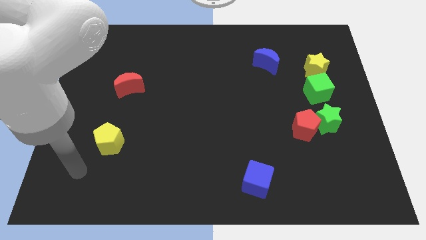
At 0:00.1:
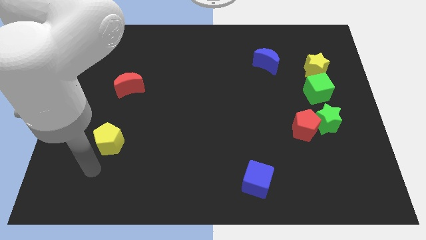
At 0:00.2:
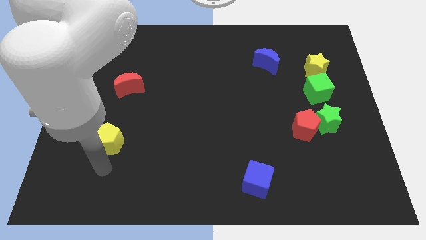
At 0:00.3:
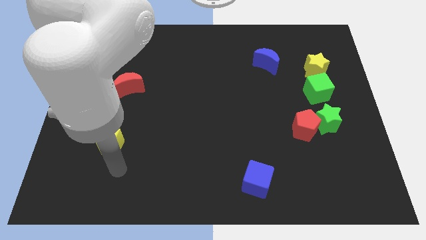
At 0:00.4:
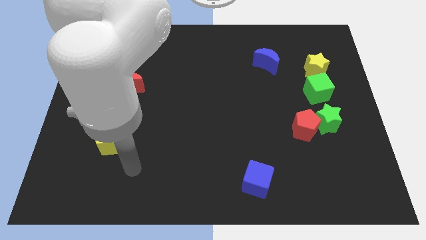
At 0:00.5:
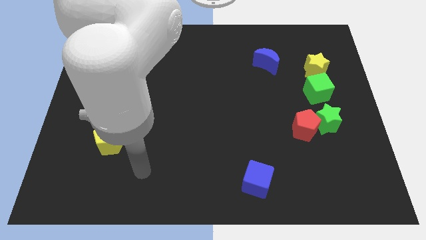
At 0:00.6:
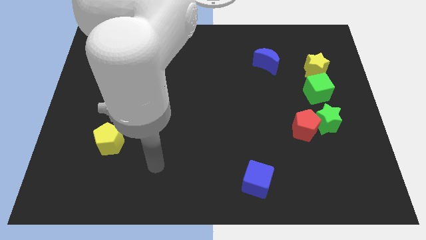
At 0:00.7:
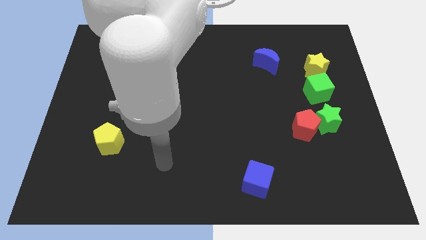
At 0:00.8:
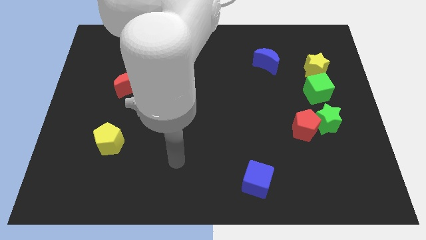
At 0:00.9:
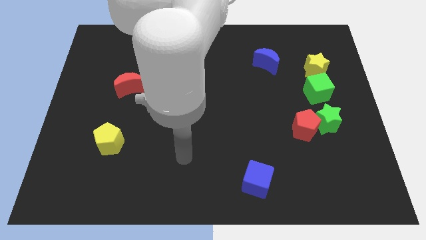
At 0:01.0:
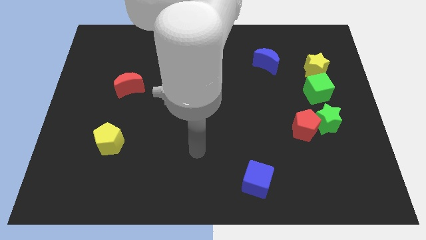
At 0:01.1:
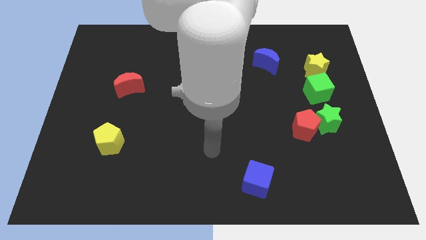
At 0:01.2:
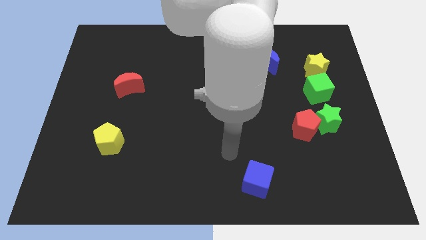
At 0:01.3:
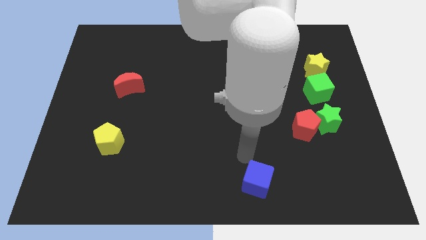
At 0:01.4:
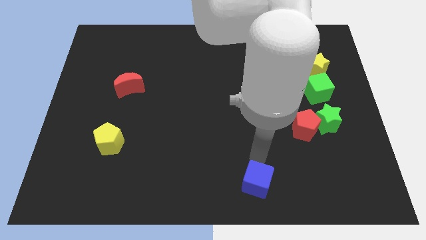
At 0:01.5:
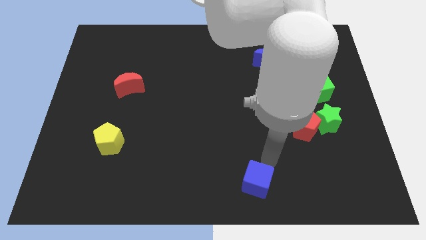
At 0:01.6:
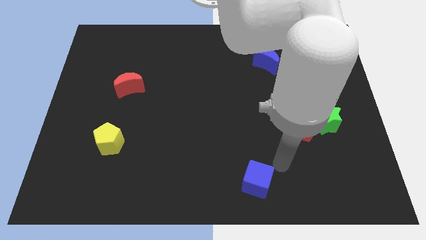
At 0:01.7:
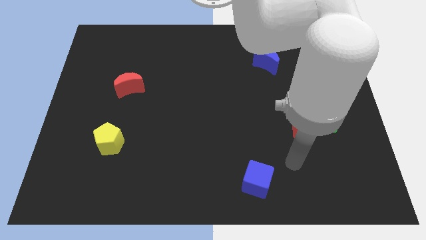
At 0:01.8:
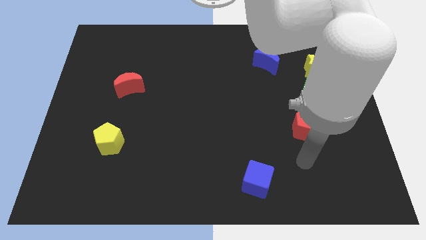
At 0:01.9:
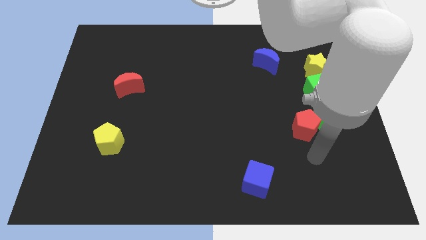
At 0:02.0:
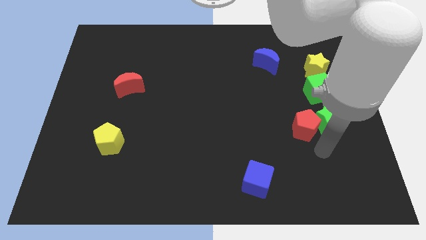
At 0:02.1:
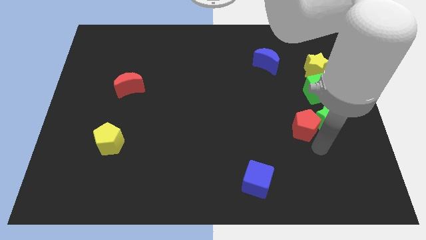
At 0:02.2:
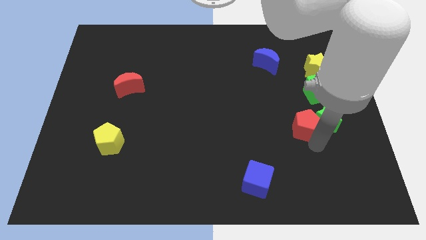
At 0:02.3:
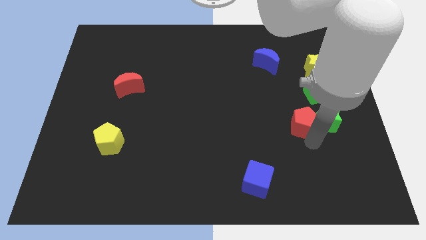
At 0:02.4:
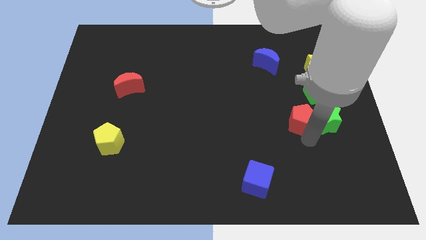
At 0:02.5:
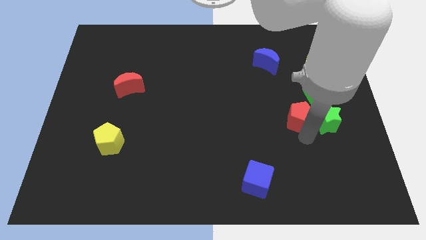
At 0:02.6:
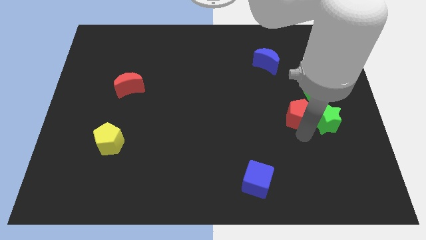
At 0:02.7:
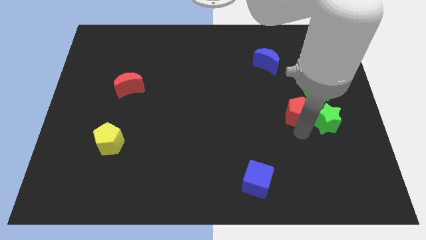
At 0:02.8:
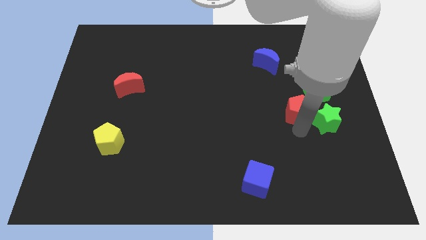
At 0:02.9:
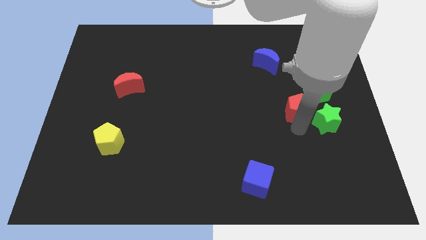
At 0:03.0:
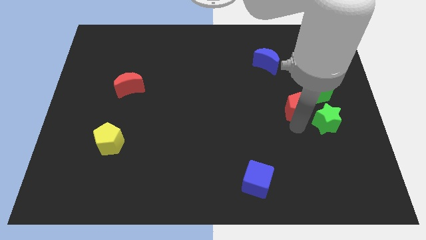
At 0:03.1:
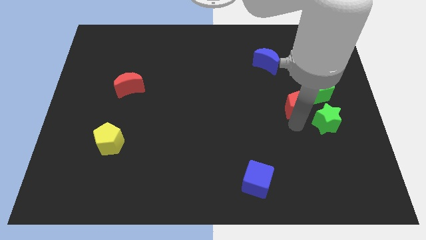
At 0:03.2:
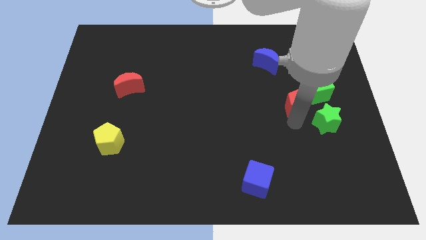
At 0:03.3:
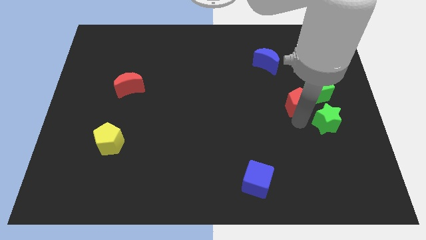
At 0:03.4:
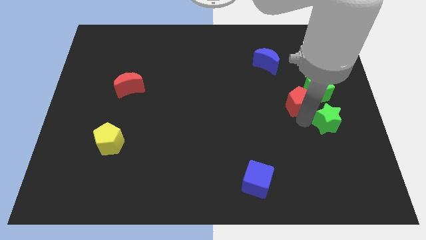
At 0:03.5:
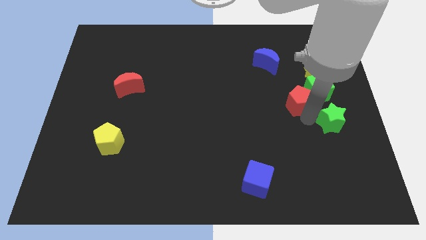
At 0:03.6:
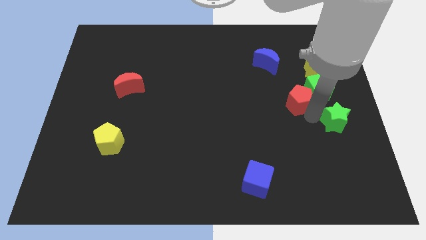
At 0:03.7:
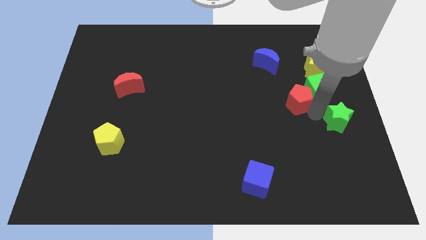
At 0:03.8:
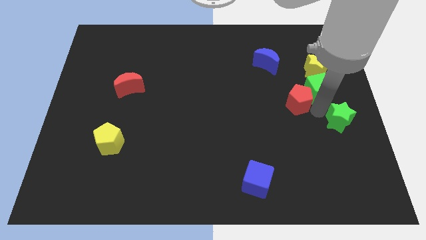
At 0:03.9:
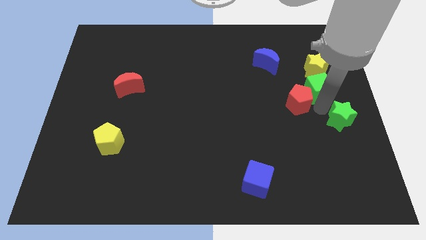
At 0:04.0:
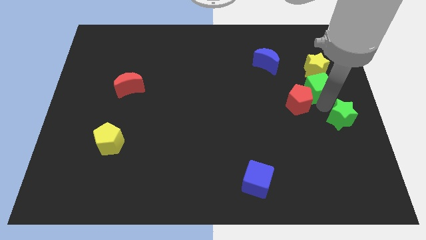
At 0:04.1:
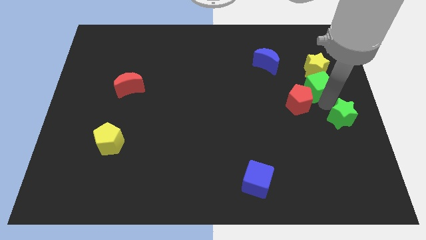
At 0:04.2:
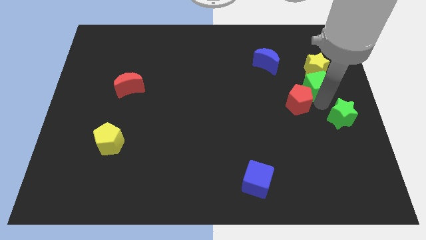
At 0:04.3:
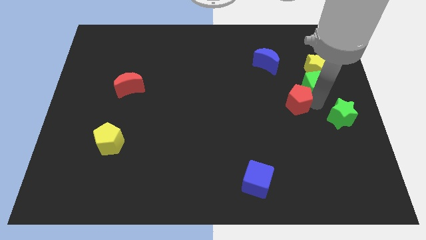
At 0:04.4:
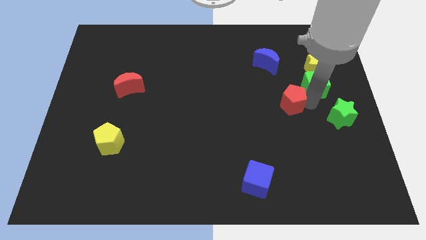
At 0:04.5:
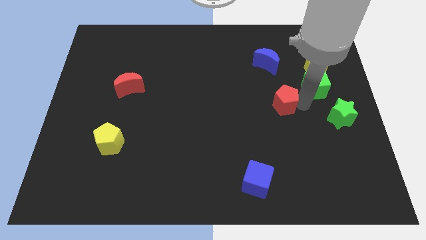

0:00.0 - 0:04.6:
push the red pentagon below the blue moon

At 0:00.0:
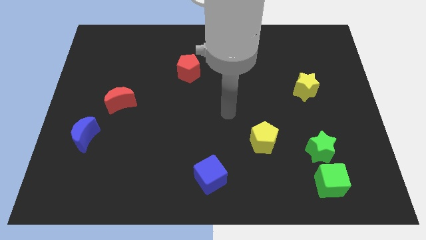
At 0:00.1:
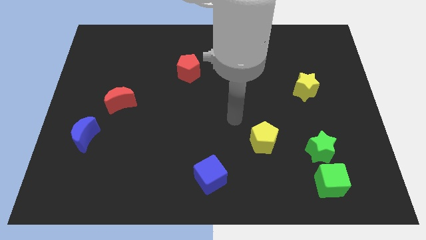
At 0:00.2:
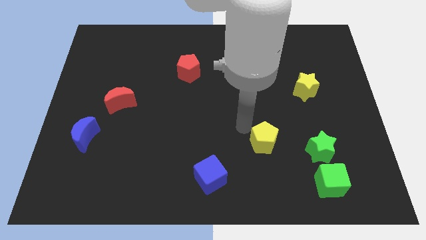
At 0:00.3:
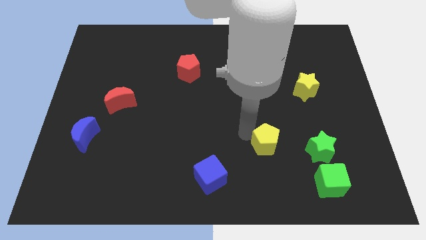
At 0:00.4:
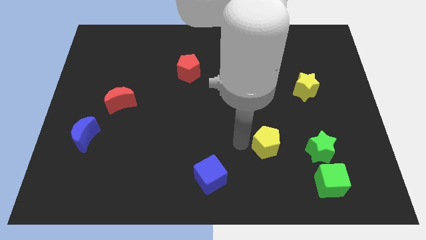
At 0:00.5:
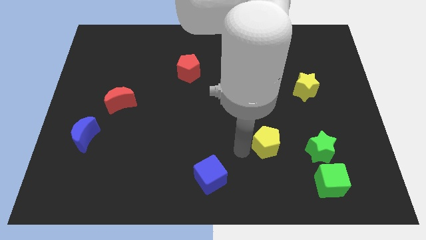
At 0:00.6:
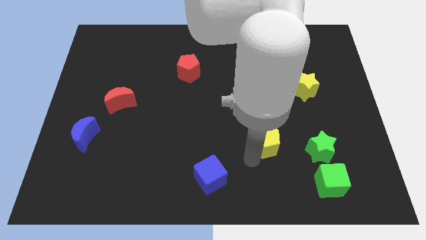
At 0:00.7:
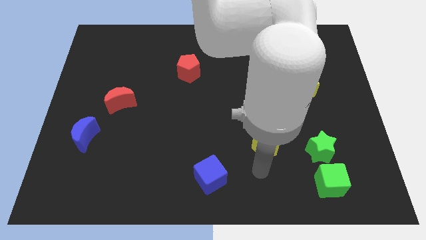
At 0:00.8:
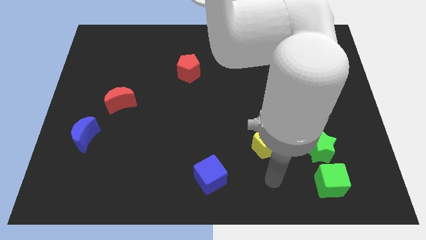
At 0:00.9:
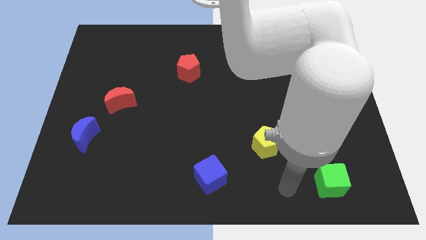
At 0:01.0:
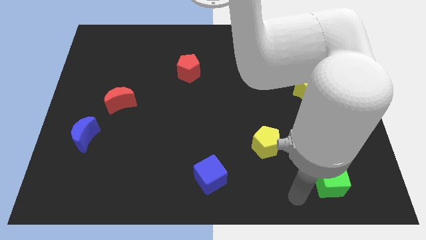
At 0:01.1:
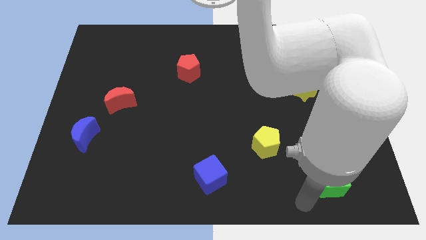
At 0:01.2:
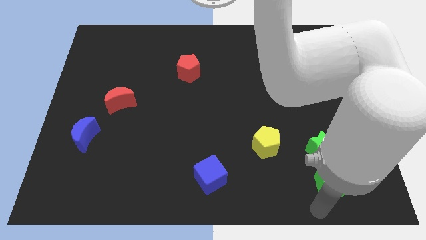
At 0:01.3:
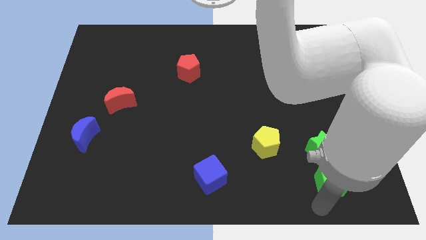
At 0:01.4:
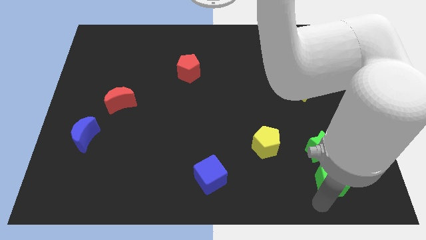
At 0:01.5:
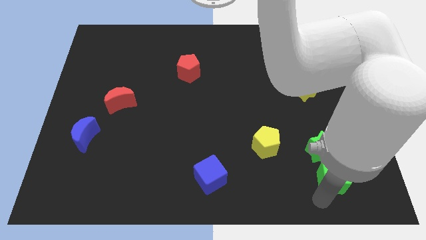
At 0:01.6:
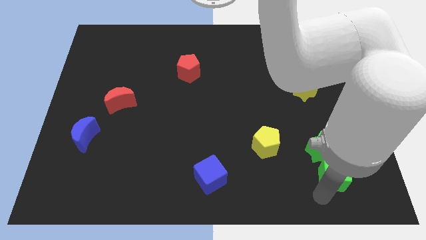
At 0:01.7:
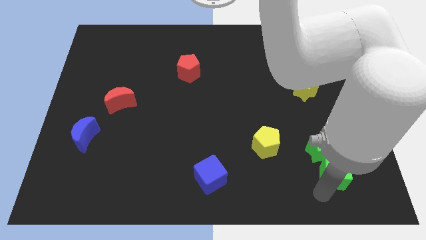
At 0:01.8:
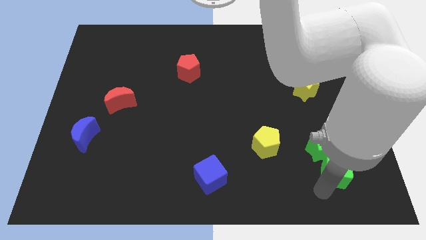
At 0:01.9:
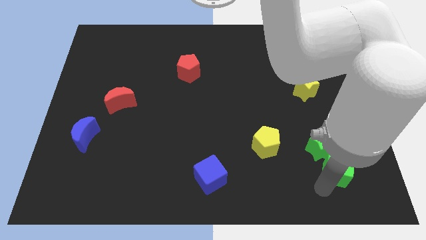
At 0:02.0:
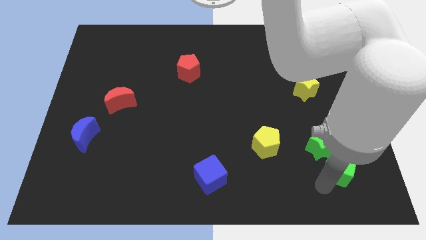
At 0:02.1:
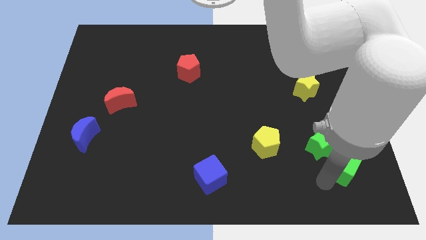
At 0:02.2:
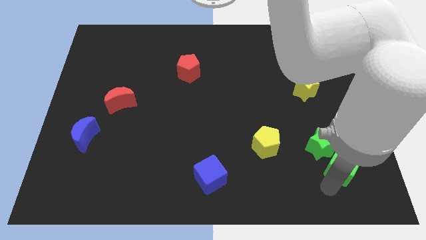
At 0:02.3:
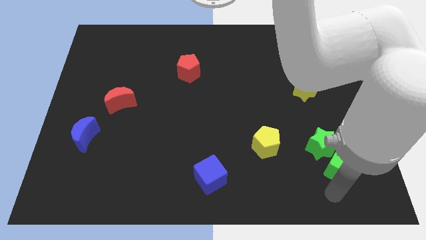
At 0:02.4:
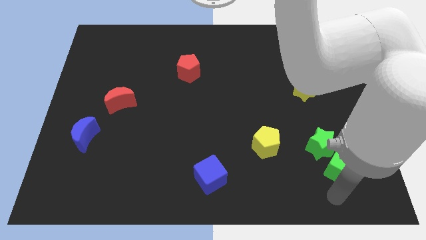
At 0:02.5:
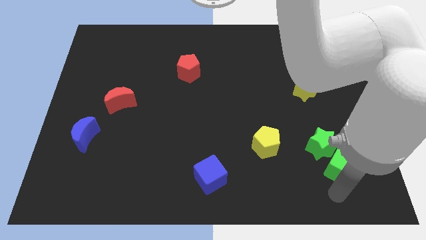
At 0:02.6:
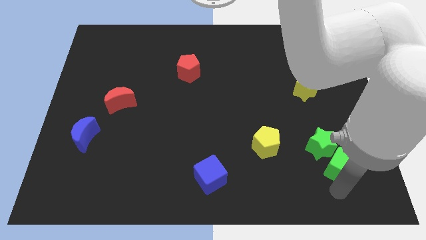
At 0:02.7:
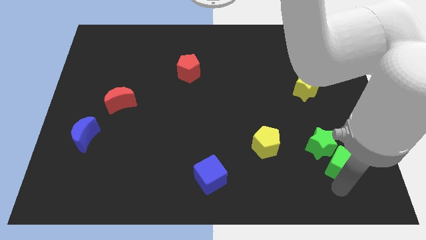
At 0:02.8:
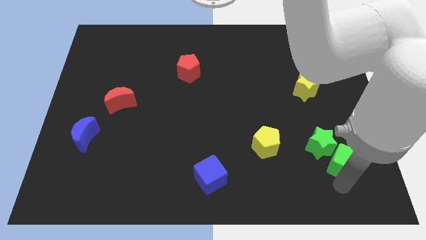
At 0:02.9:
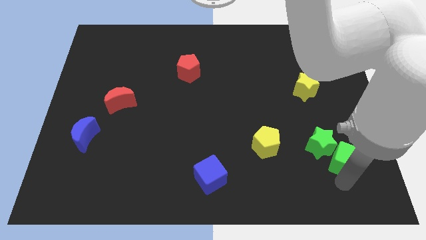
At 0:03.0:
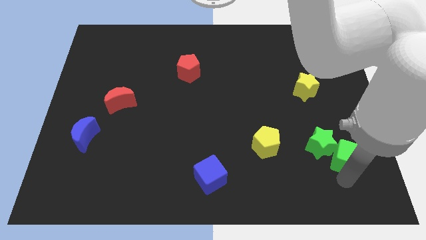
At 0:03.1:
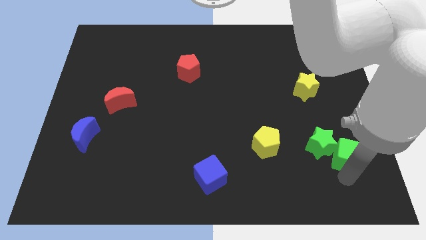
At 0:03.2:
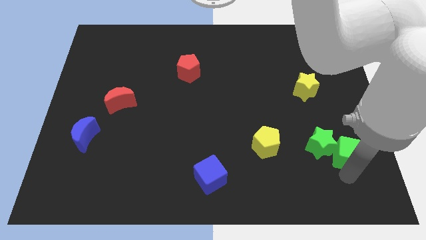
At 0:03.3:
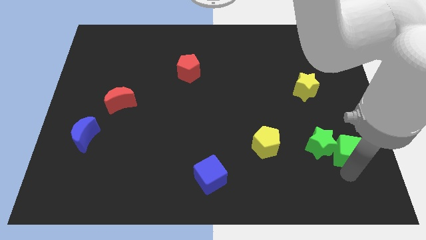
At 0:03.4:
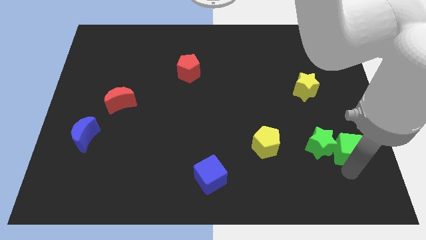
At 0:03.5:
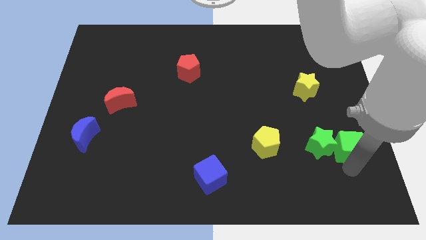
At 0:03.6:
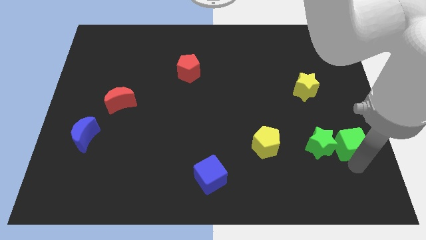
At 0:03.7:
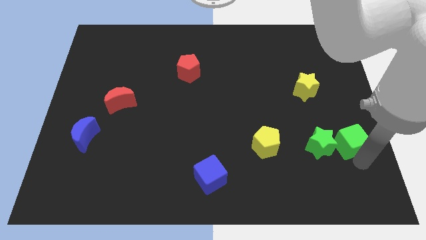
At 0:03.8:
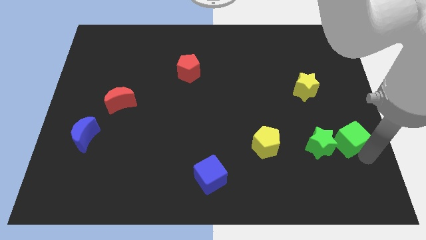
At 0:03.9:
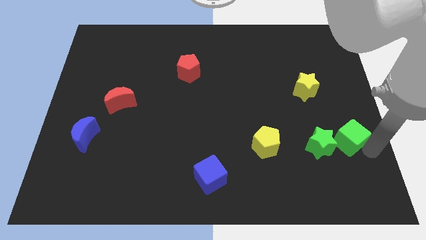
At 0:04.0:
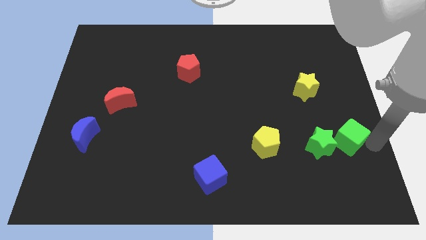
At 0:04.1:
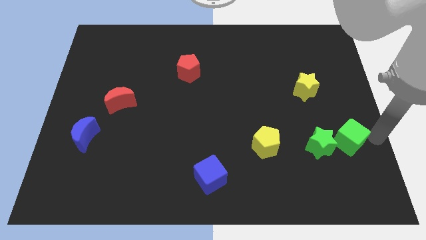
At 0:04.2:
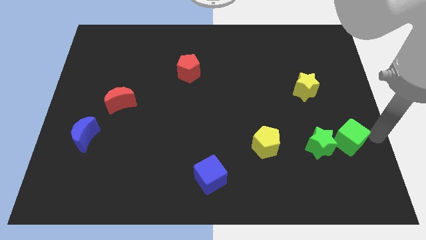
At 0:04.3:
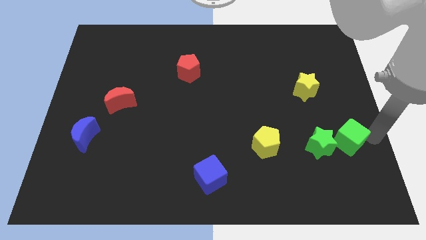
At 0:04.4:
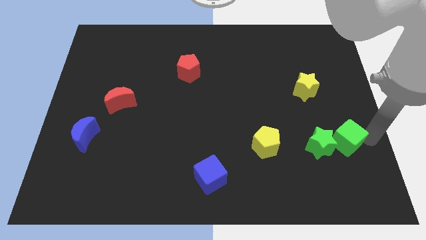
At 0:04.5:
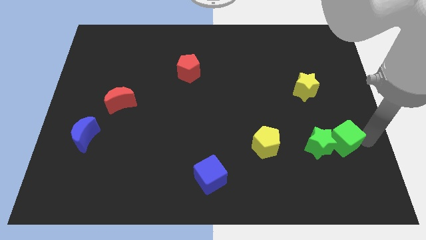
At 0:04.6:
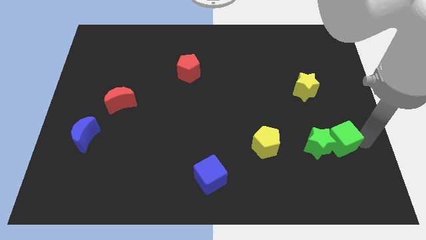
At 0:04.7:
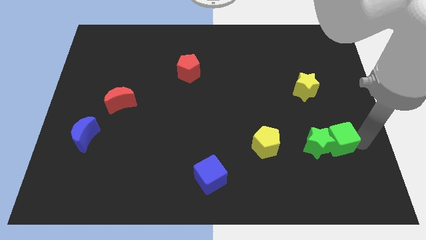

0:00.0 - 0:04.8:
move the green cube just right of the yellow pentagon
